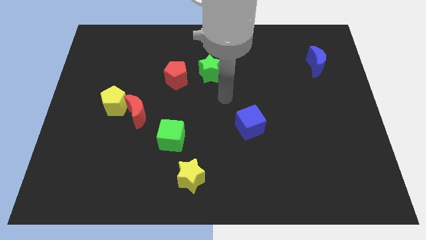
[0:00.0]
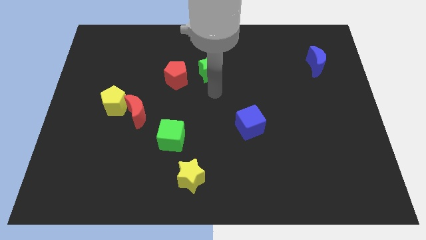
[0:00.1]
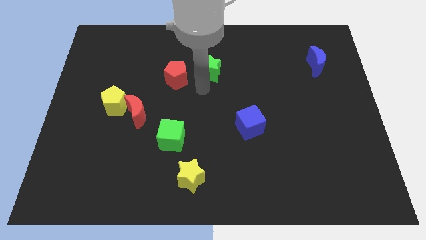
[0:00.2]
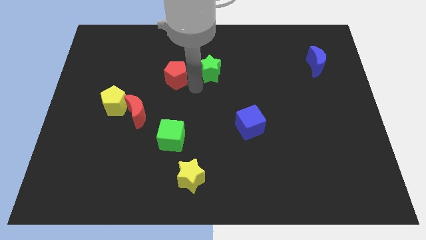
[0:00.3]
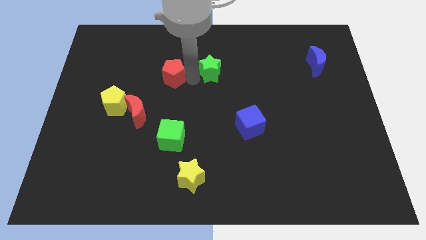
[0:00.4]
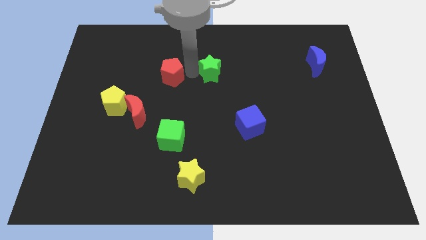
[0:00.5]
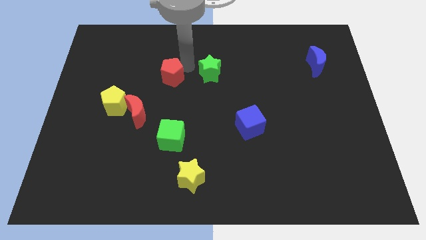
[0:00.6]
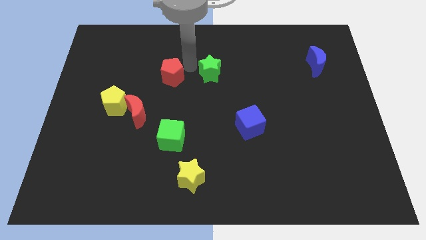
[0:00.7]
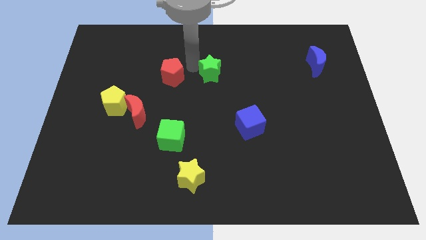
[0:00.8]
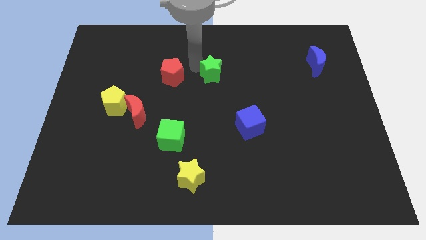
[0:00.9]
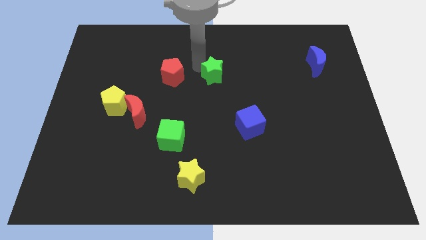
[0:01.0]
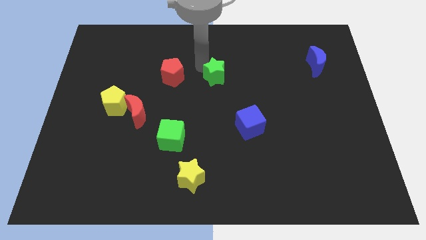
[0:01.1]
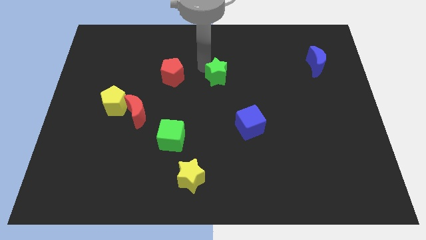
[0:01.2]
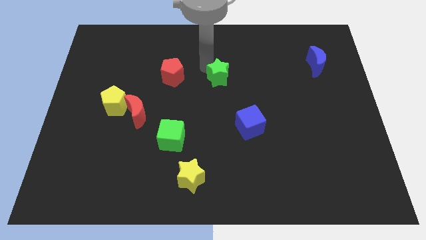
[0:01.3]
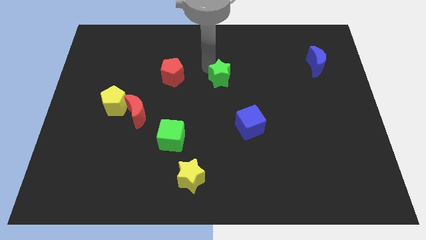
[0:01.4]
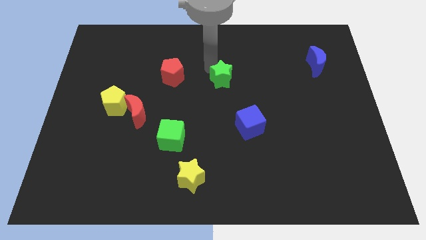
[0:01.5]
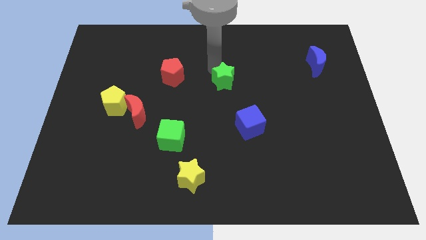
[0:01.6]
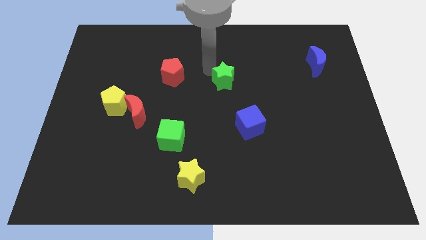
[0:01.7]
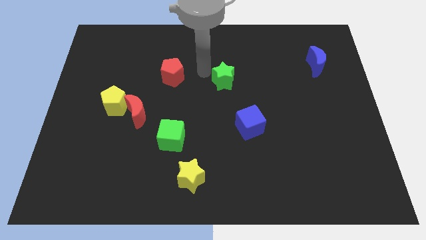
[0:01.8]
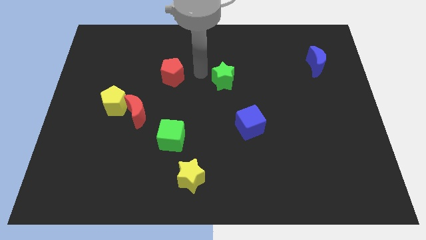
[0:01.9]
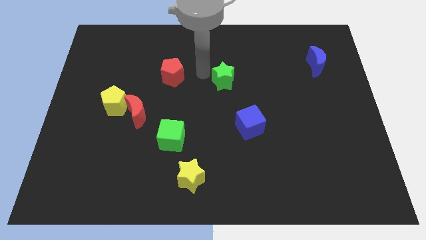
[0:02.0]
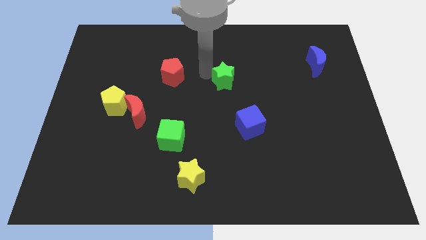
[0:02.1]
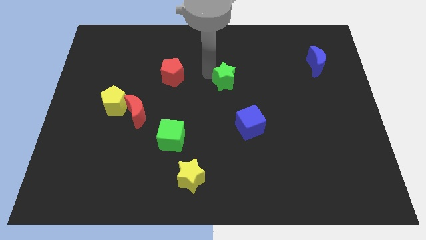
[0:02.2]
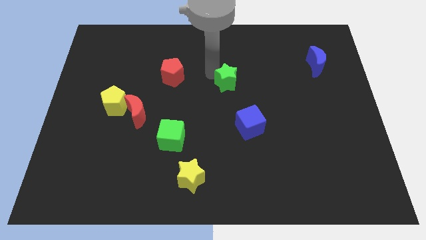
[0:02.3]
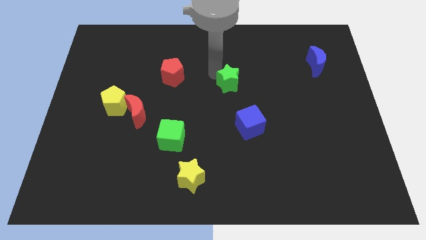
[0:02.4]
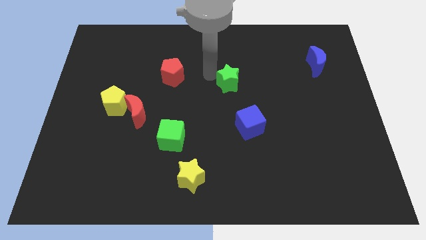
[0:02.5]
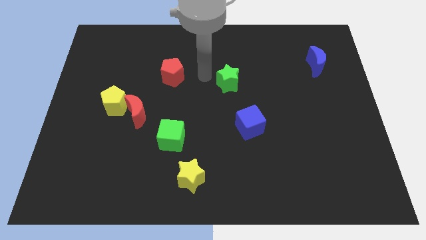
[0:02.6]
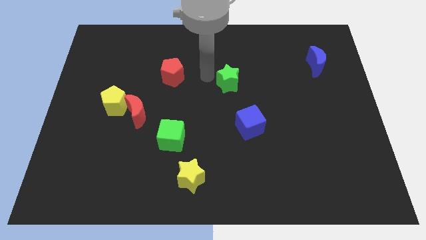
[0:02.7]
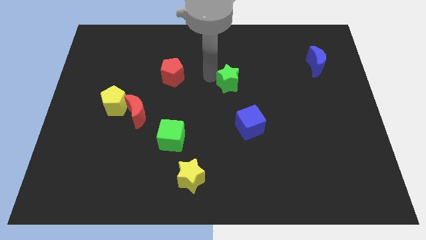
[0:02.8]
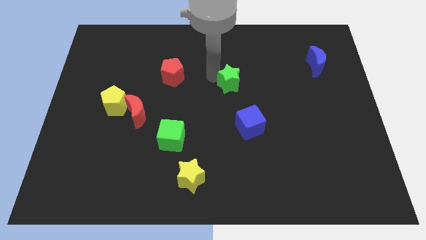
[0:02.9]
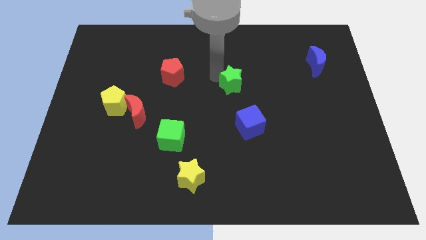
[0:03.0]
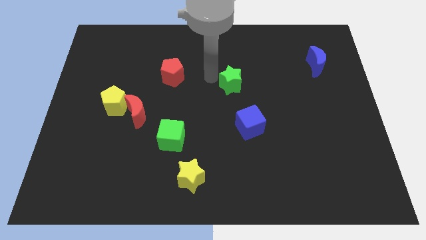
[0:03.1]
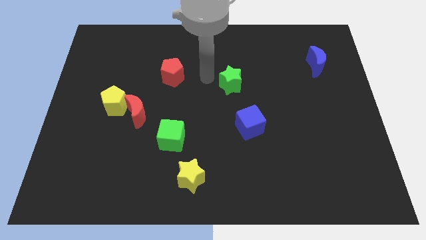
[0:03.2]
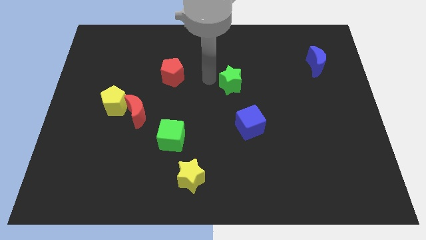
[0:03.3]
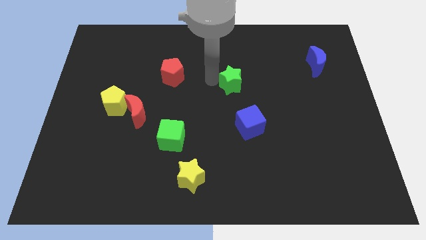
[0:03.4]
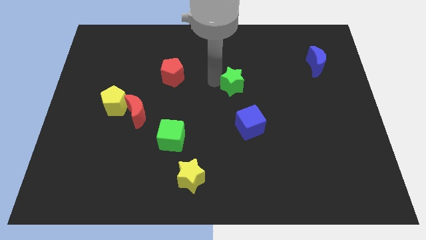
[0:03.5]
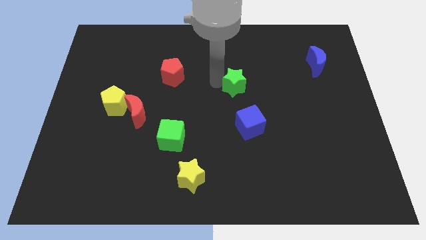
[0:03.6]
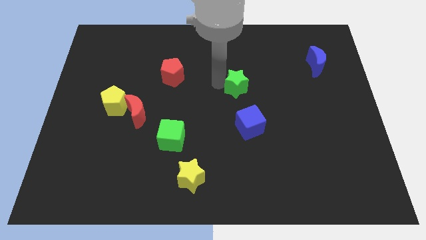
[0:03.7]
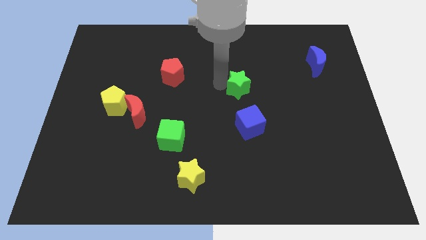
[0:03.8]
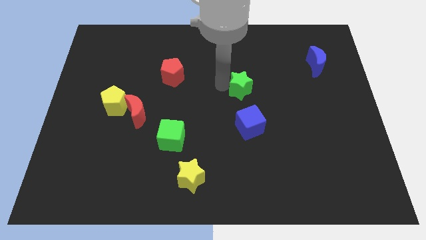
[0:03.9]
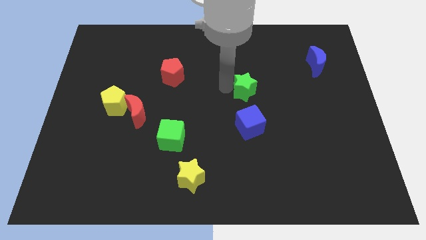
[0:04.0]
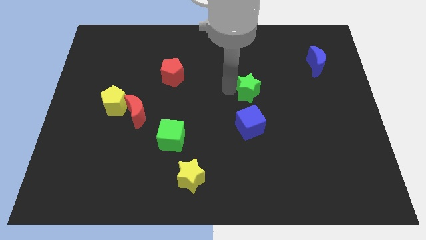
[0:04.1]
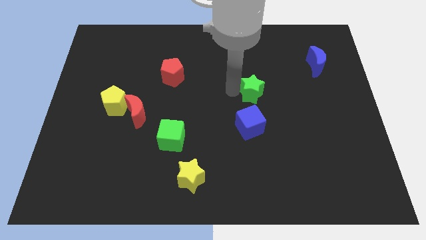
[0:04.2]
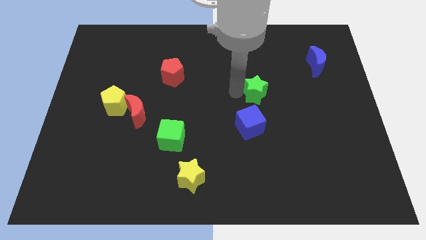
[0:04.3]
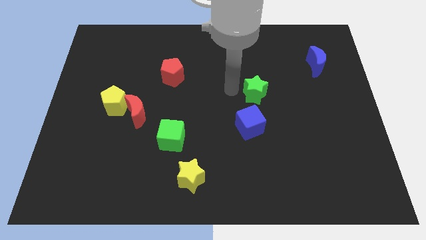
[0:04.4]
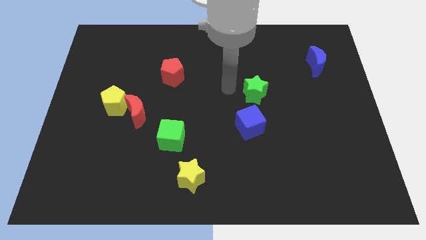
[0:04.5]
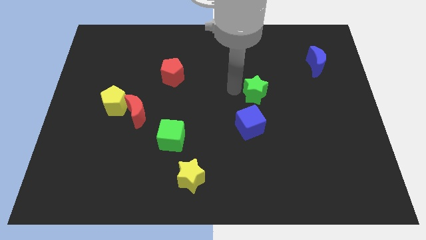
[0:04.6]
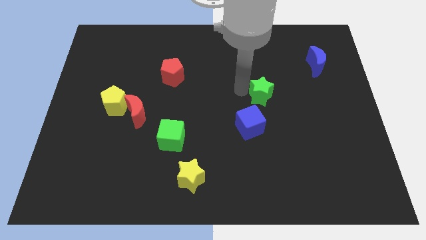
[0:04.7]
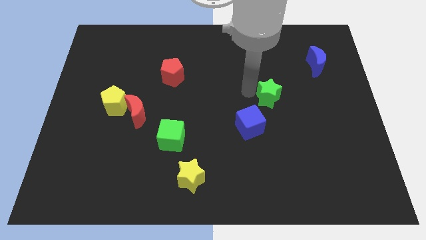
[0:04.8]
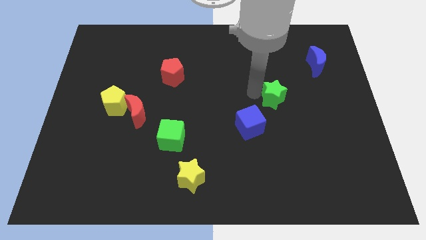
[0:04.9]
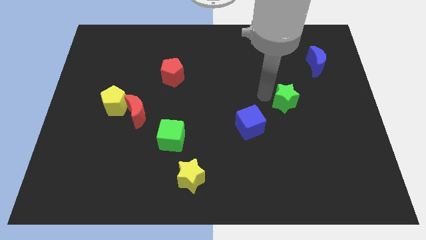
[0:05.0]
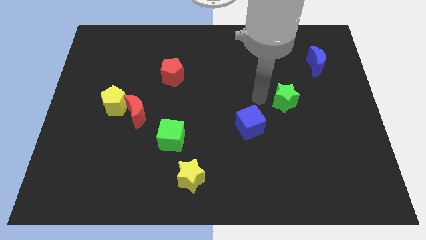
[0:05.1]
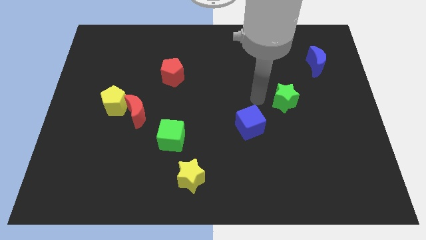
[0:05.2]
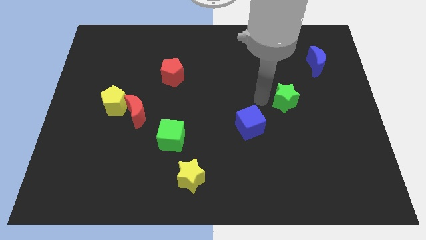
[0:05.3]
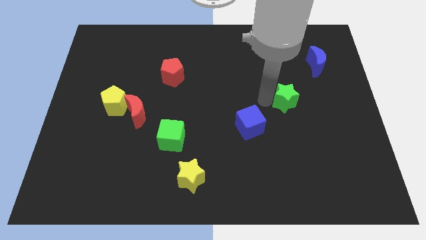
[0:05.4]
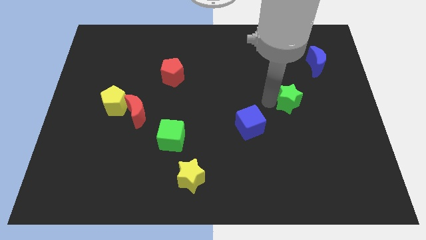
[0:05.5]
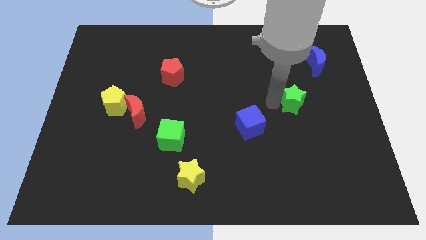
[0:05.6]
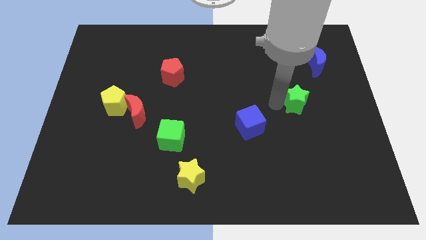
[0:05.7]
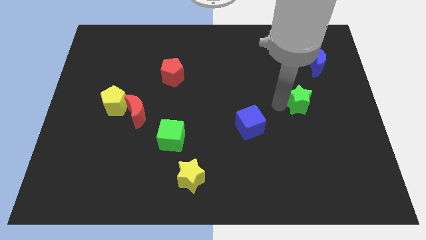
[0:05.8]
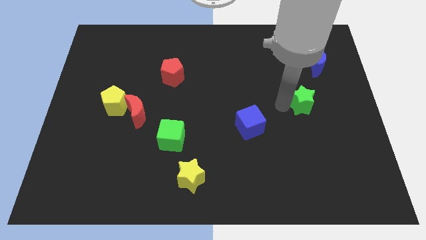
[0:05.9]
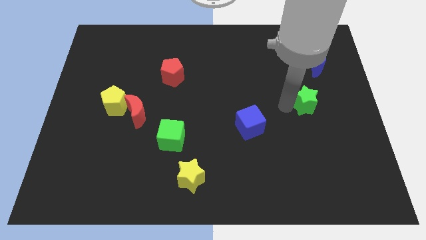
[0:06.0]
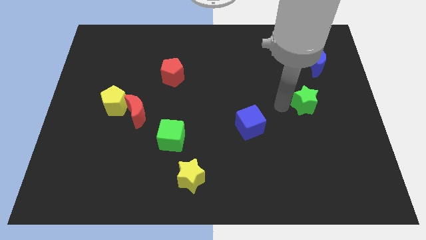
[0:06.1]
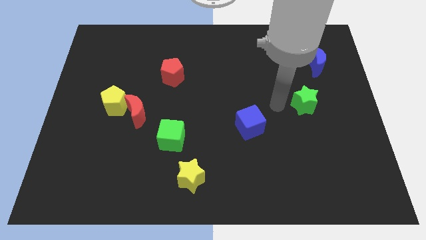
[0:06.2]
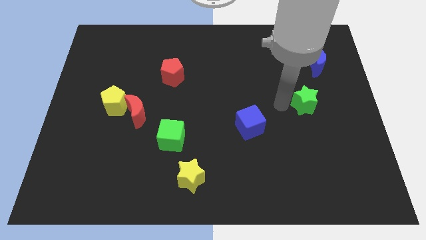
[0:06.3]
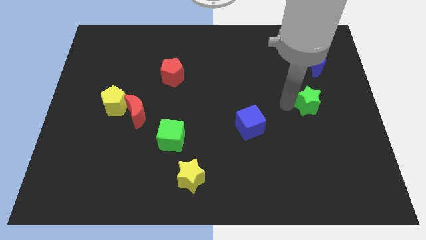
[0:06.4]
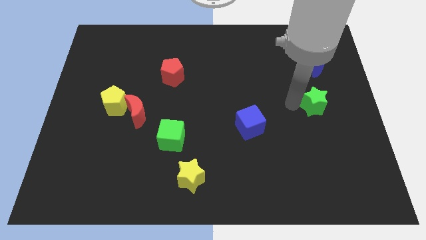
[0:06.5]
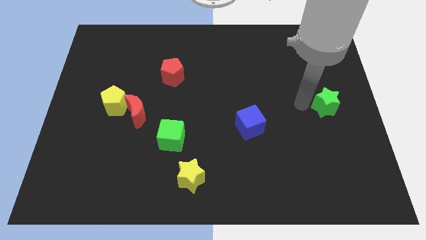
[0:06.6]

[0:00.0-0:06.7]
slide the green star to the center right

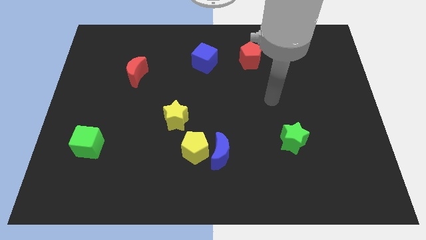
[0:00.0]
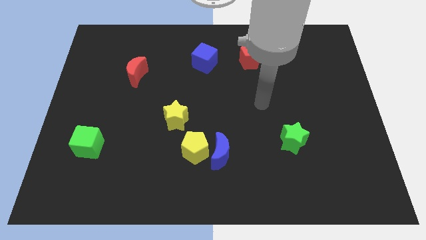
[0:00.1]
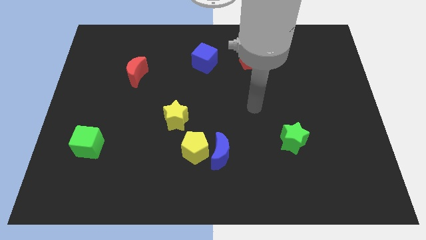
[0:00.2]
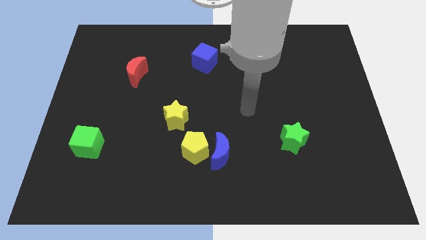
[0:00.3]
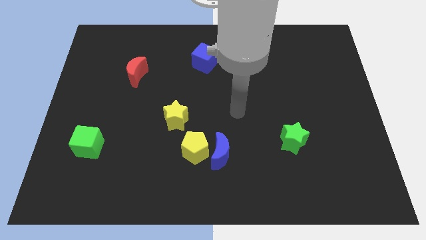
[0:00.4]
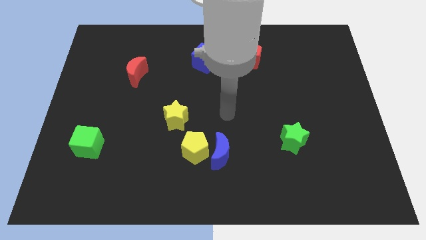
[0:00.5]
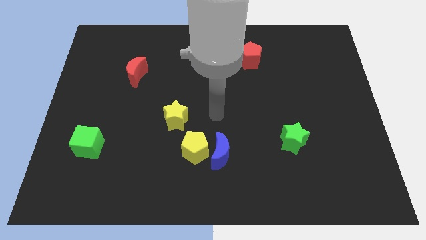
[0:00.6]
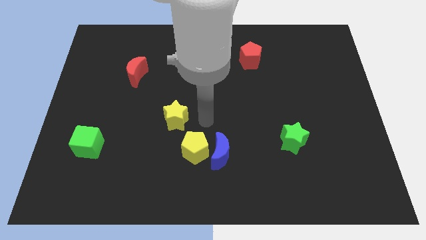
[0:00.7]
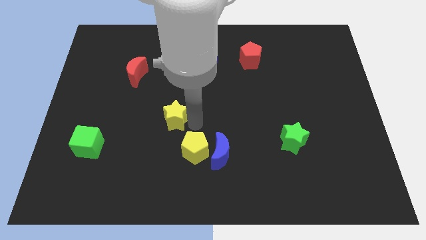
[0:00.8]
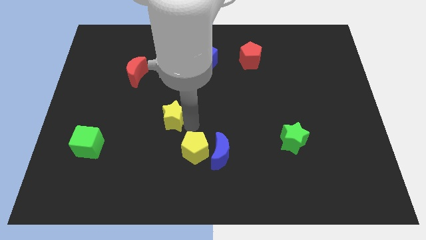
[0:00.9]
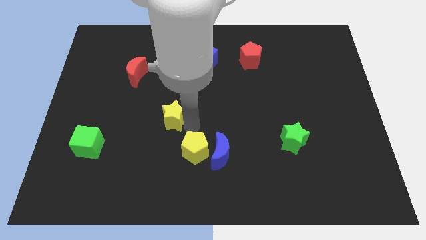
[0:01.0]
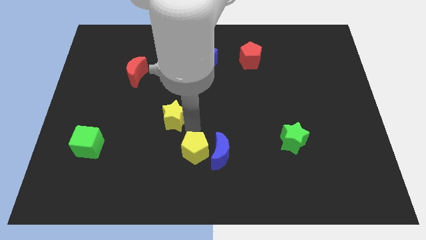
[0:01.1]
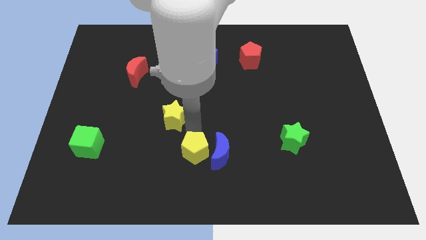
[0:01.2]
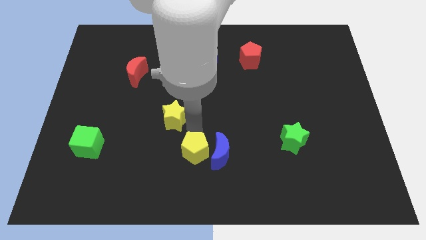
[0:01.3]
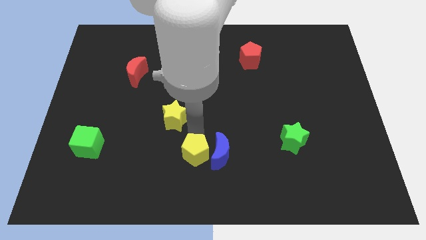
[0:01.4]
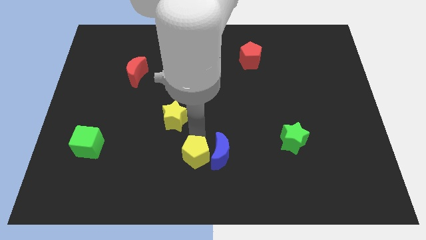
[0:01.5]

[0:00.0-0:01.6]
slide the yellow pentagon to the bottom
